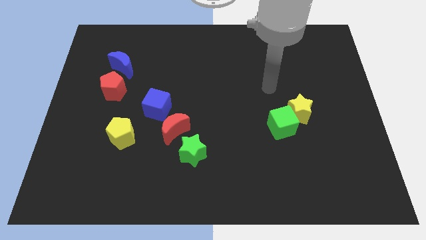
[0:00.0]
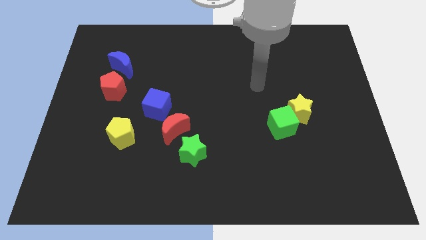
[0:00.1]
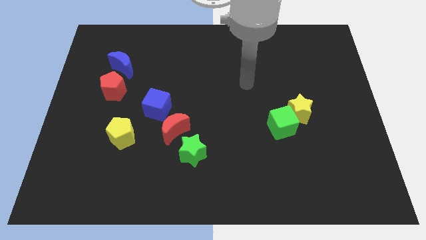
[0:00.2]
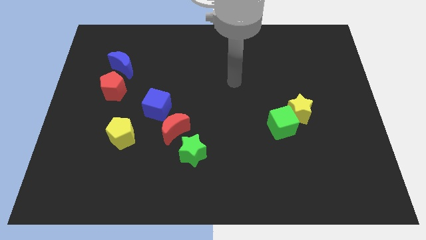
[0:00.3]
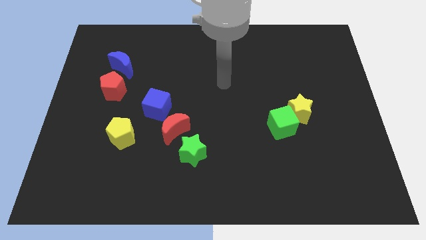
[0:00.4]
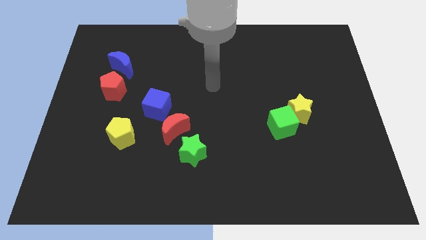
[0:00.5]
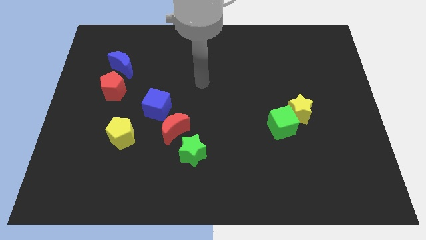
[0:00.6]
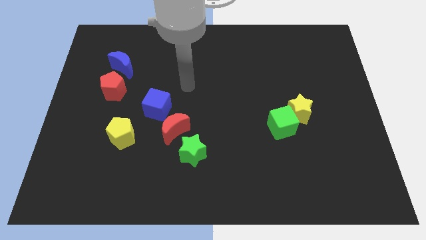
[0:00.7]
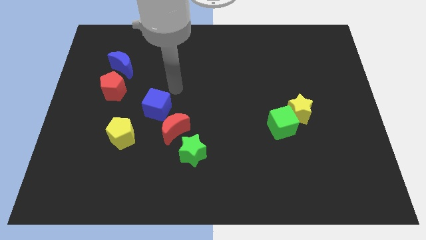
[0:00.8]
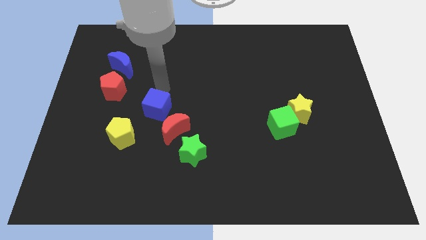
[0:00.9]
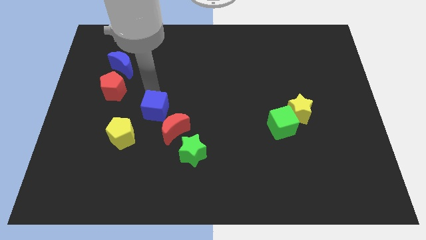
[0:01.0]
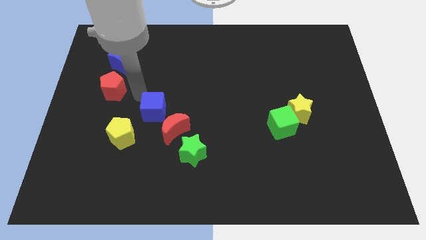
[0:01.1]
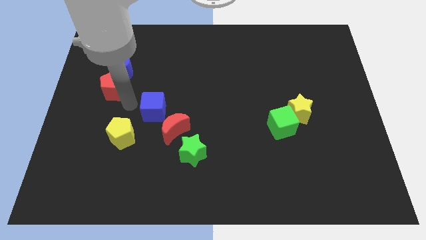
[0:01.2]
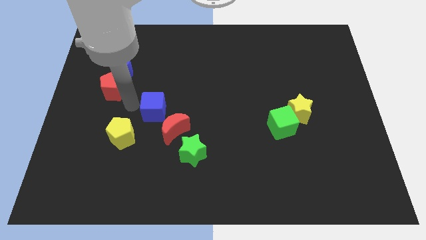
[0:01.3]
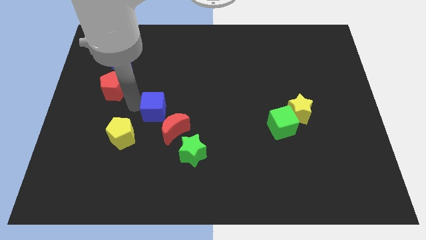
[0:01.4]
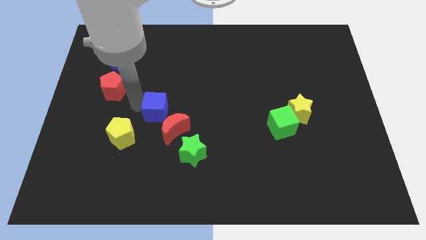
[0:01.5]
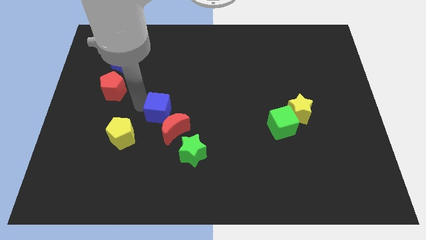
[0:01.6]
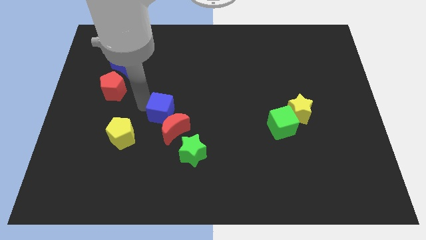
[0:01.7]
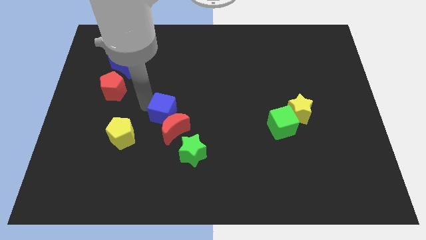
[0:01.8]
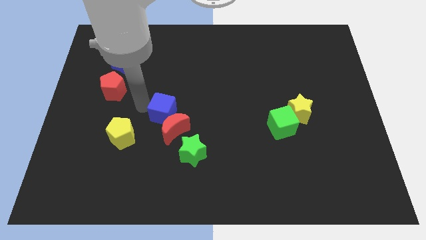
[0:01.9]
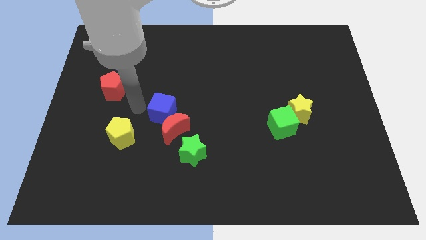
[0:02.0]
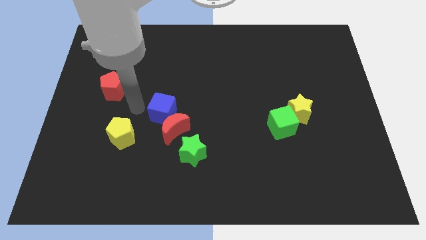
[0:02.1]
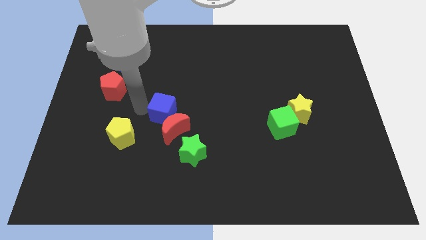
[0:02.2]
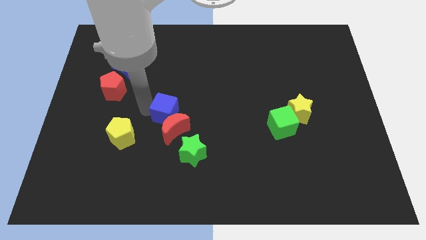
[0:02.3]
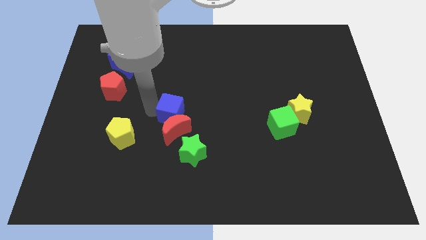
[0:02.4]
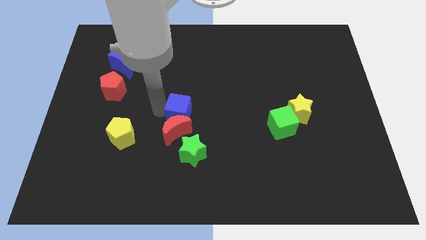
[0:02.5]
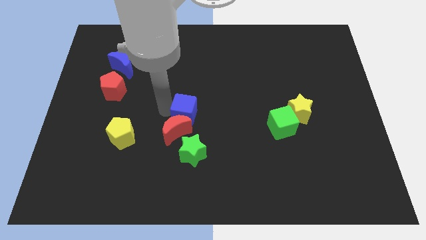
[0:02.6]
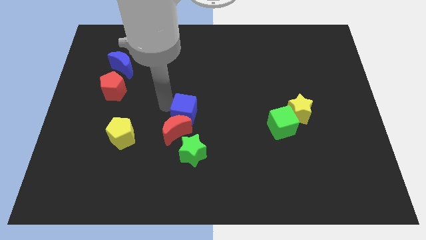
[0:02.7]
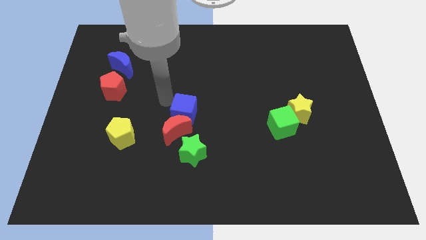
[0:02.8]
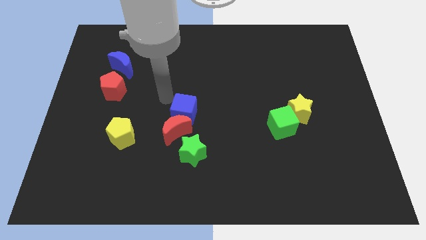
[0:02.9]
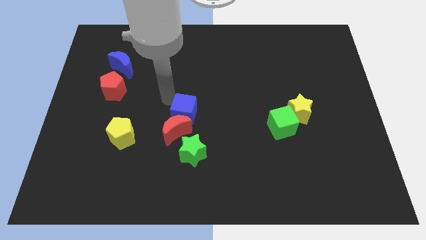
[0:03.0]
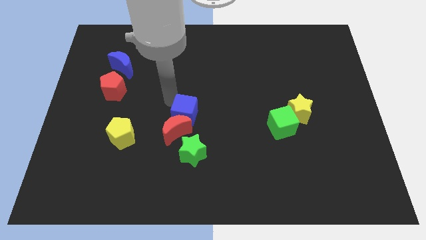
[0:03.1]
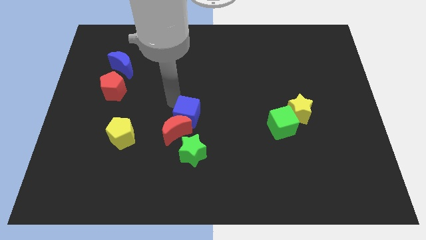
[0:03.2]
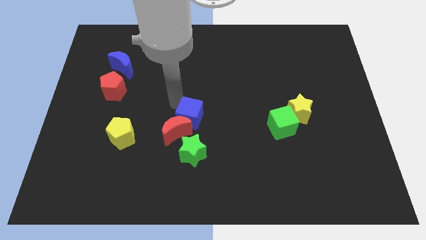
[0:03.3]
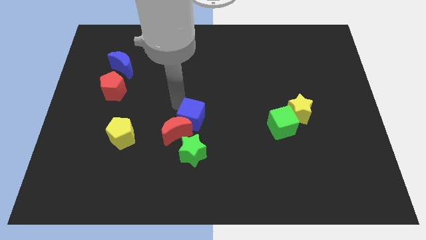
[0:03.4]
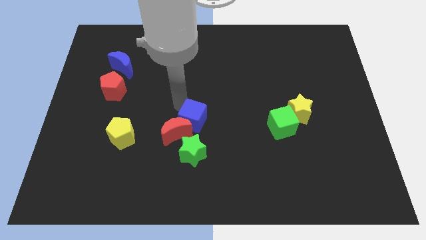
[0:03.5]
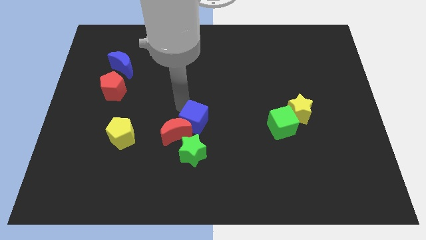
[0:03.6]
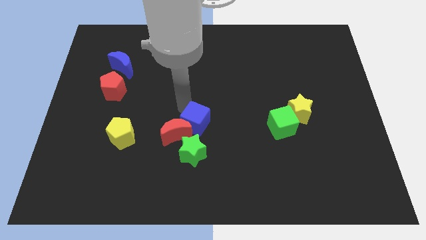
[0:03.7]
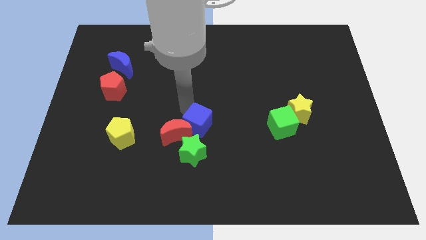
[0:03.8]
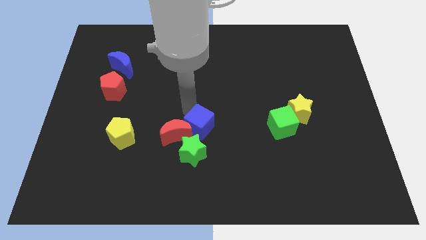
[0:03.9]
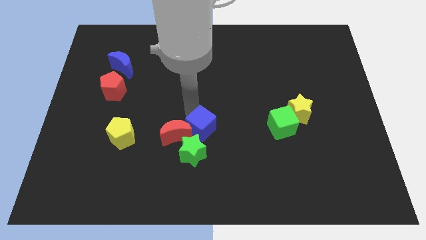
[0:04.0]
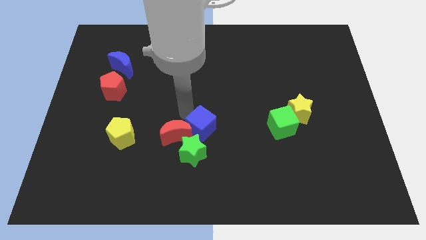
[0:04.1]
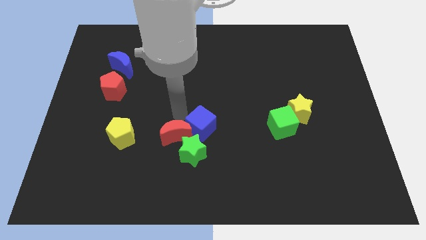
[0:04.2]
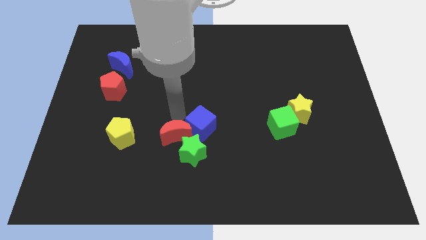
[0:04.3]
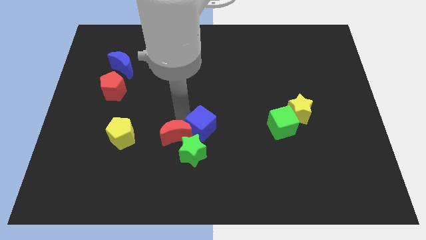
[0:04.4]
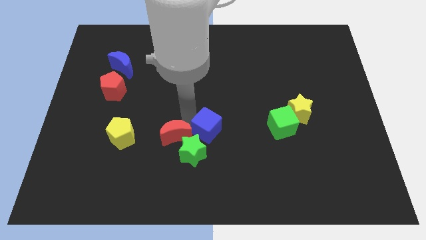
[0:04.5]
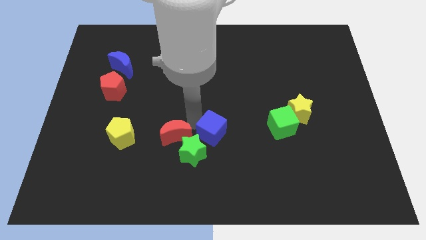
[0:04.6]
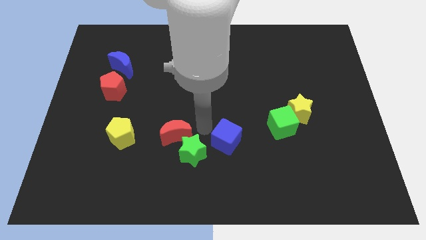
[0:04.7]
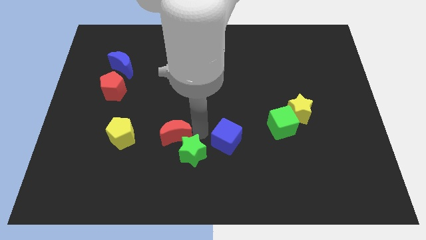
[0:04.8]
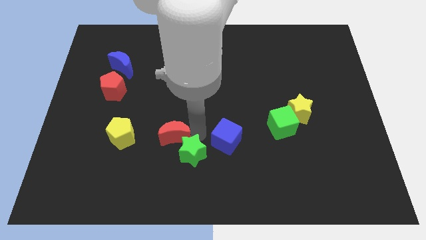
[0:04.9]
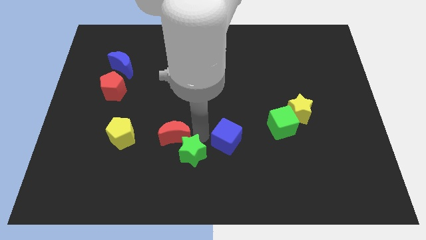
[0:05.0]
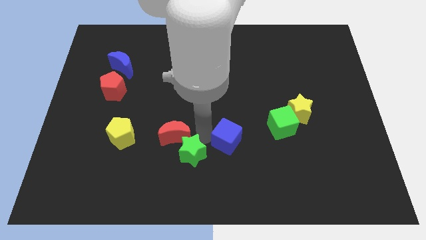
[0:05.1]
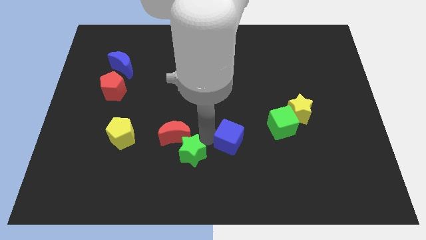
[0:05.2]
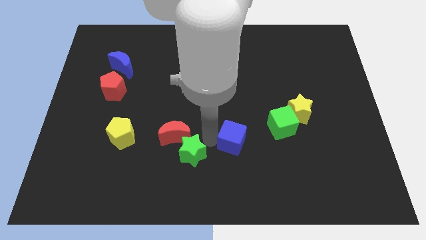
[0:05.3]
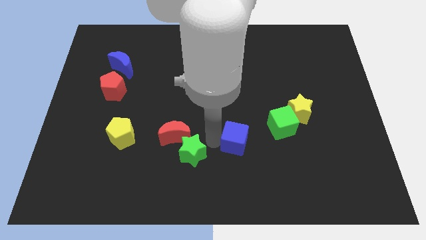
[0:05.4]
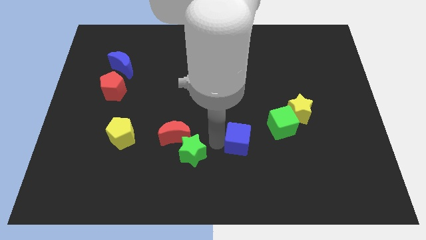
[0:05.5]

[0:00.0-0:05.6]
put the blue cube to the bottom left side of the green cube

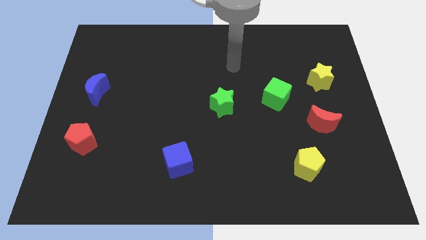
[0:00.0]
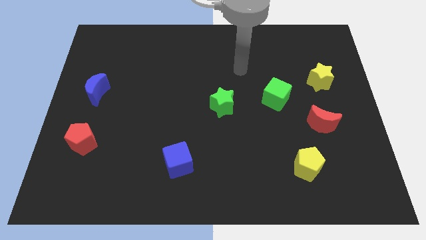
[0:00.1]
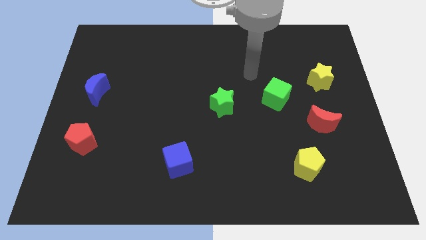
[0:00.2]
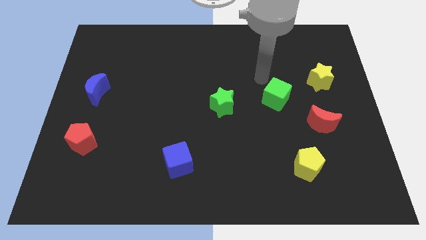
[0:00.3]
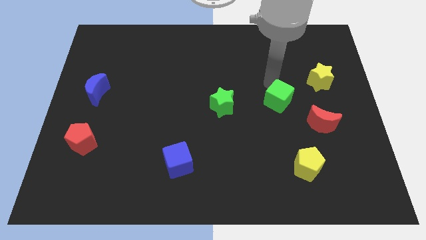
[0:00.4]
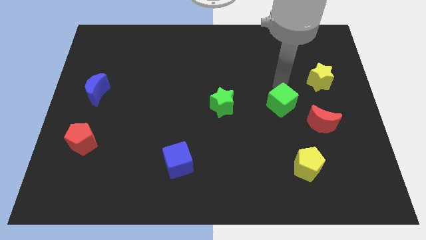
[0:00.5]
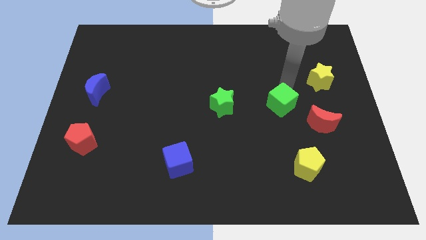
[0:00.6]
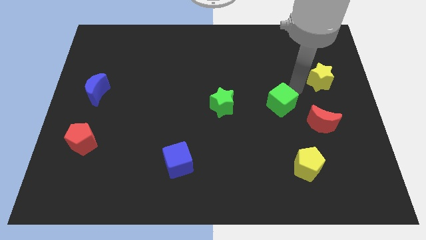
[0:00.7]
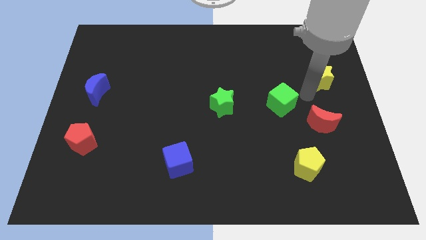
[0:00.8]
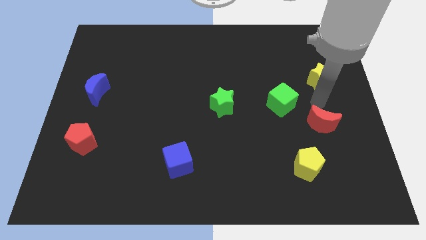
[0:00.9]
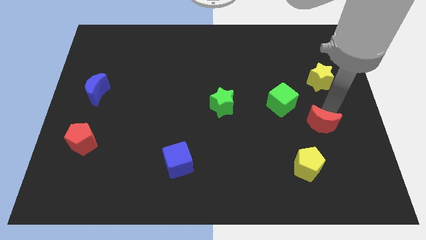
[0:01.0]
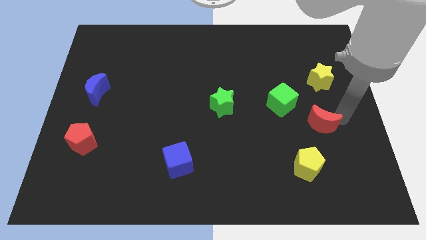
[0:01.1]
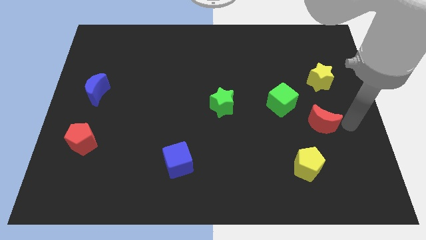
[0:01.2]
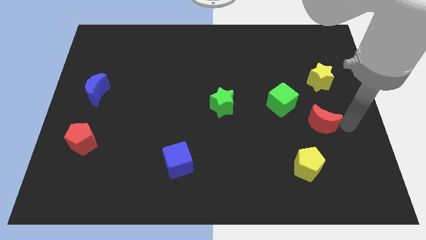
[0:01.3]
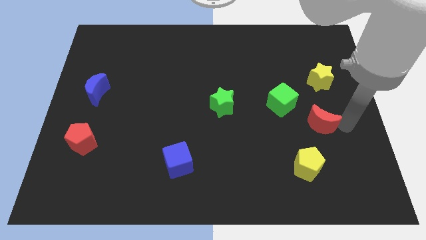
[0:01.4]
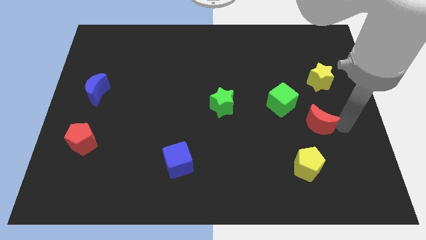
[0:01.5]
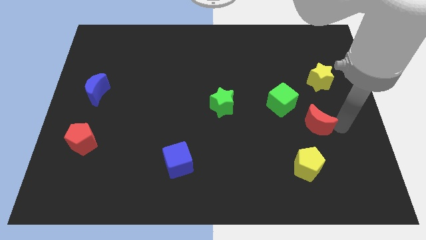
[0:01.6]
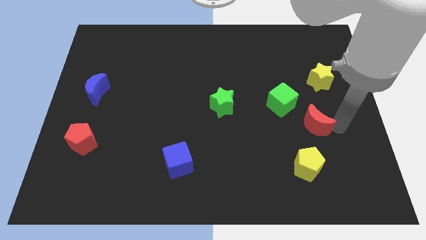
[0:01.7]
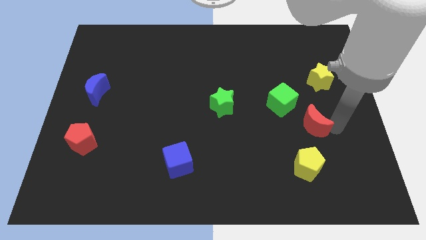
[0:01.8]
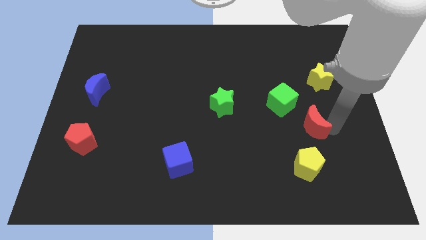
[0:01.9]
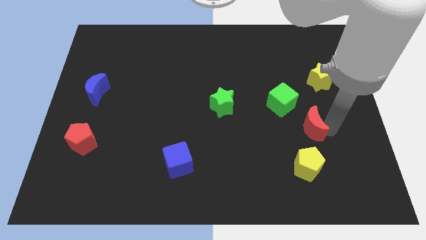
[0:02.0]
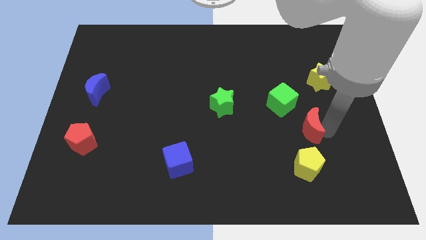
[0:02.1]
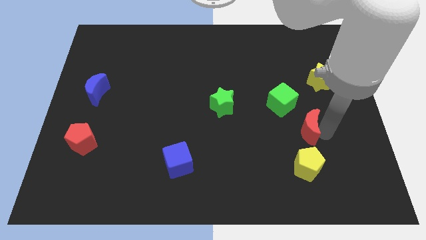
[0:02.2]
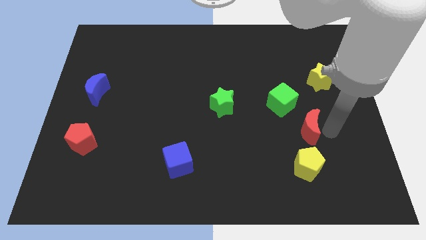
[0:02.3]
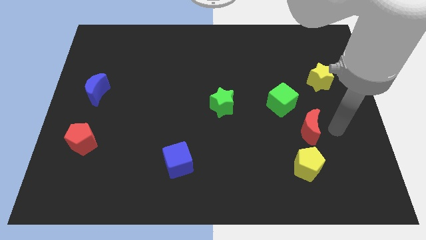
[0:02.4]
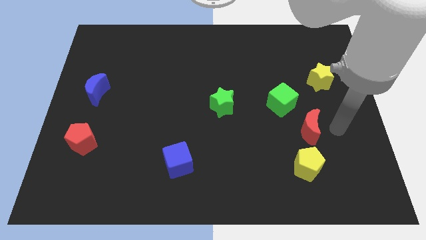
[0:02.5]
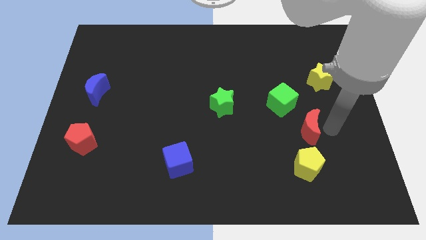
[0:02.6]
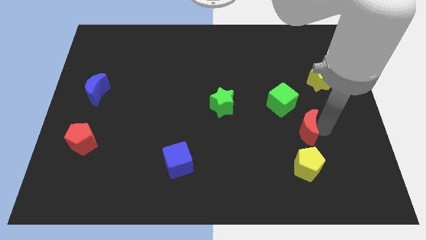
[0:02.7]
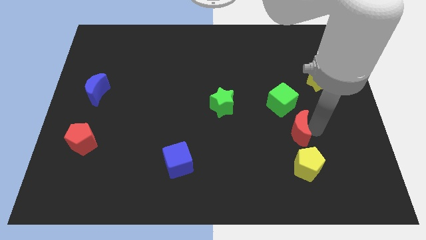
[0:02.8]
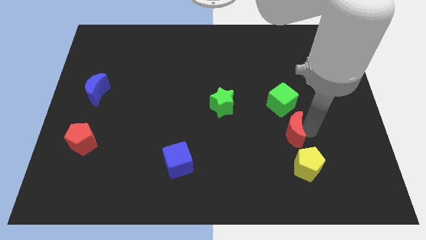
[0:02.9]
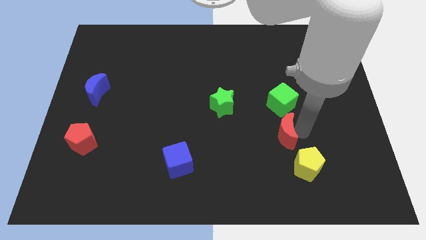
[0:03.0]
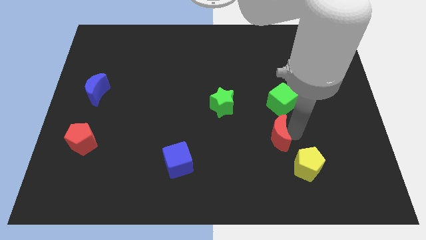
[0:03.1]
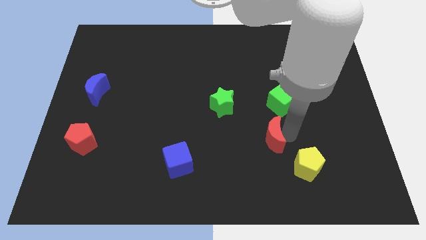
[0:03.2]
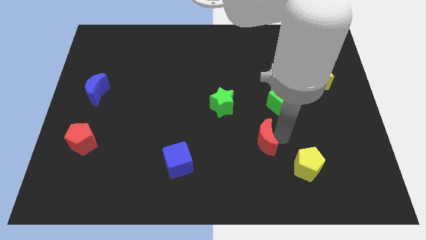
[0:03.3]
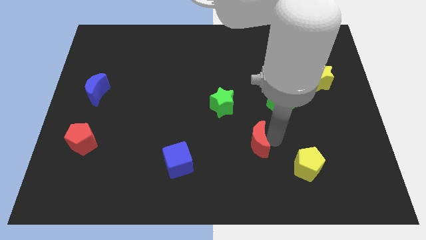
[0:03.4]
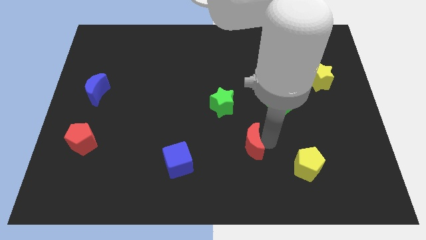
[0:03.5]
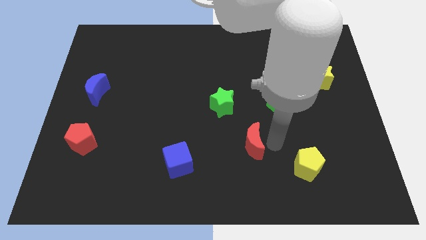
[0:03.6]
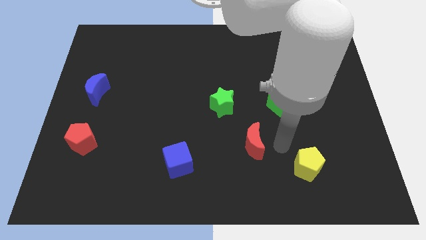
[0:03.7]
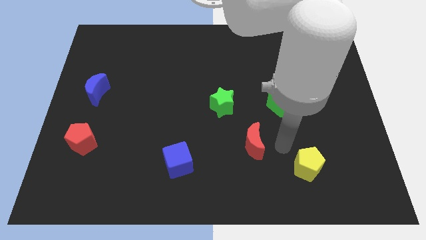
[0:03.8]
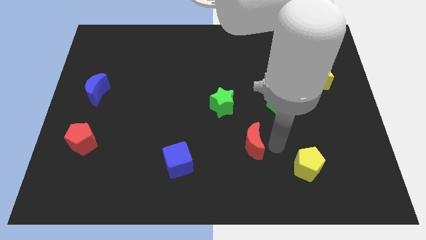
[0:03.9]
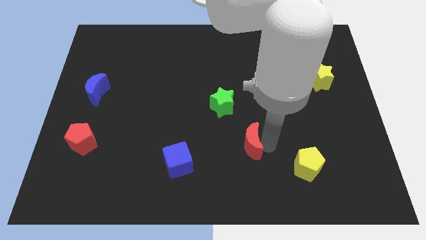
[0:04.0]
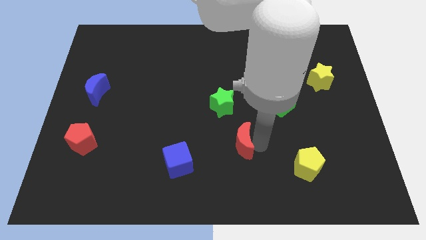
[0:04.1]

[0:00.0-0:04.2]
move the red moon below the green star
